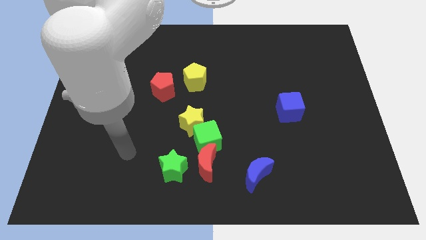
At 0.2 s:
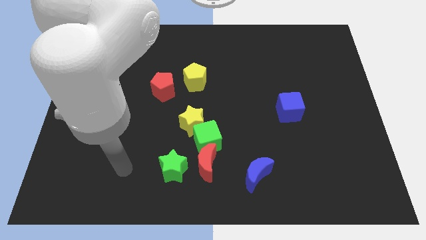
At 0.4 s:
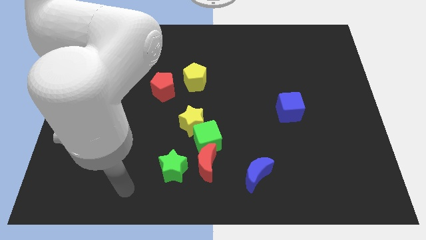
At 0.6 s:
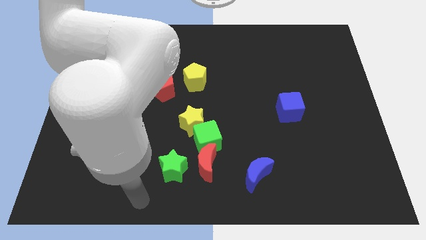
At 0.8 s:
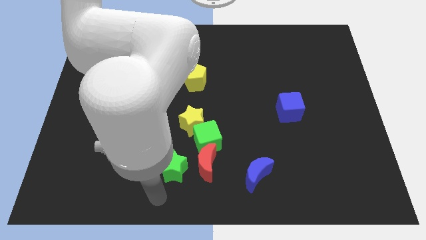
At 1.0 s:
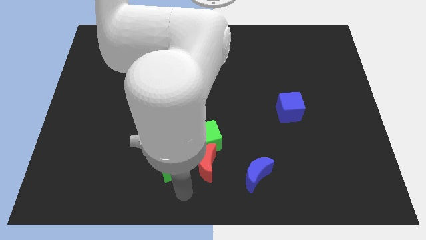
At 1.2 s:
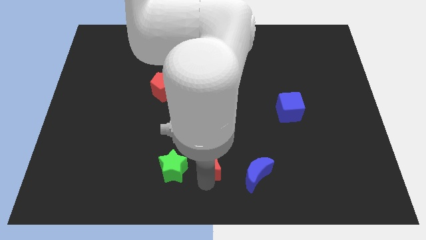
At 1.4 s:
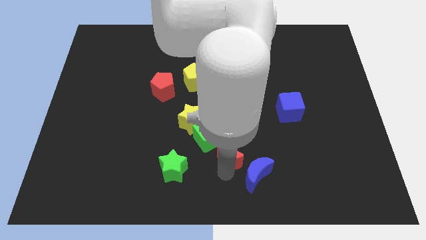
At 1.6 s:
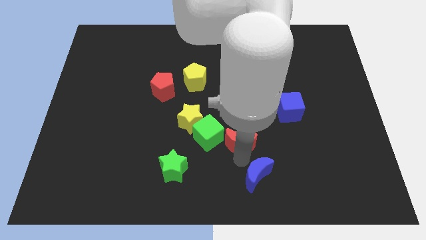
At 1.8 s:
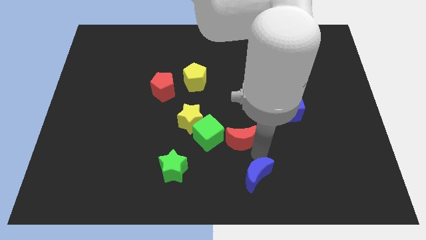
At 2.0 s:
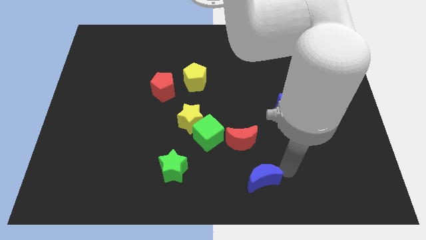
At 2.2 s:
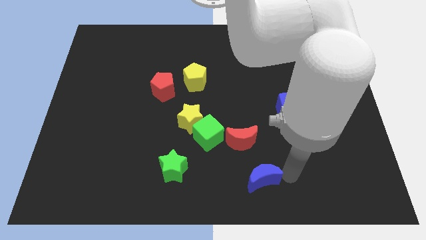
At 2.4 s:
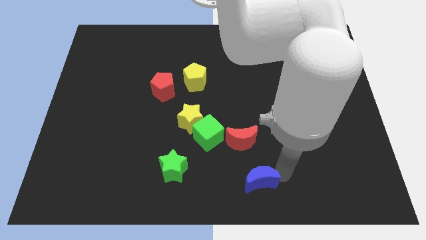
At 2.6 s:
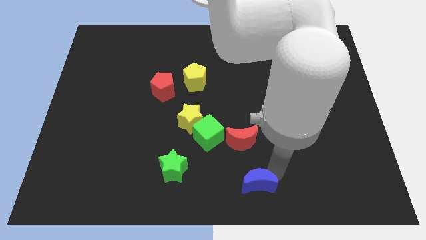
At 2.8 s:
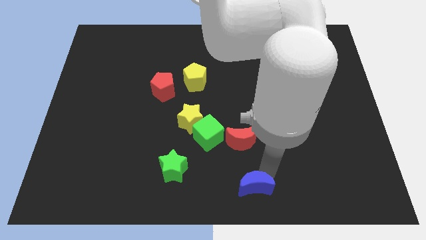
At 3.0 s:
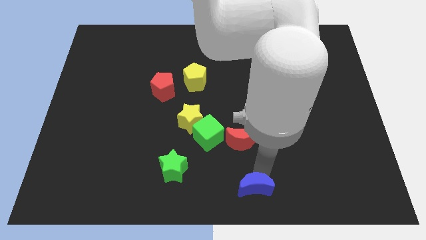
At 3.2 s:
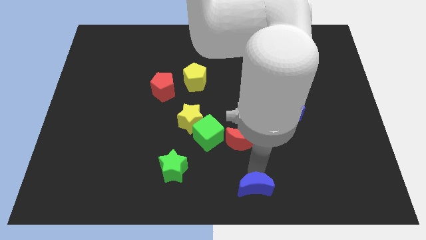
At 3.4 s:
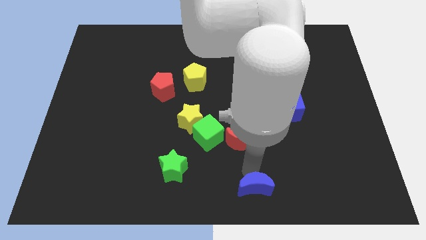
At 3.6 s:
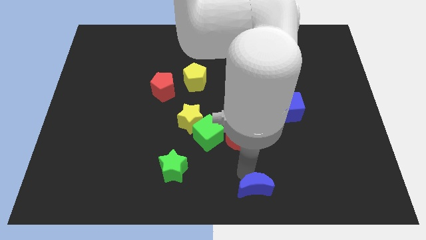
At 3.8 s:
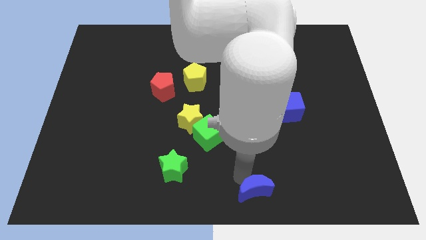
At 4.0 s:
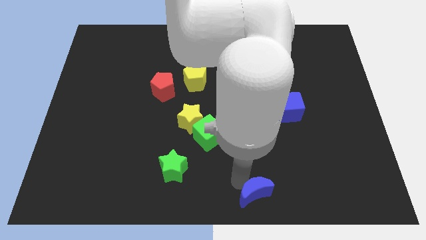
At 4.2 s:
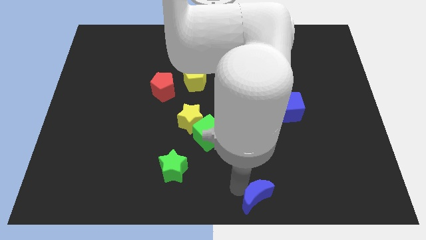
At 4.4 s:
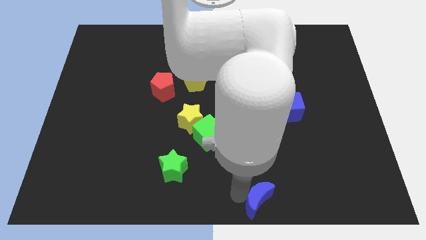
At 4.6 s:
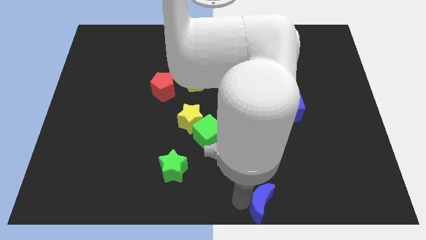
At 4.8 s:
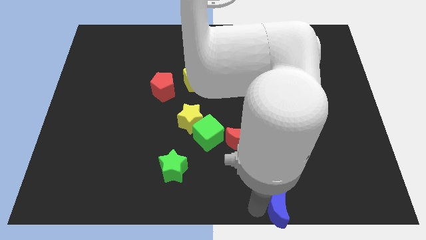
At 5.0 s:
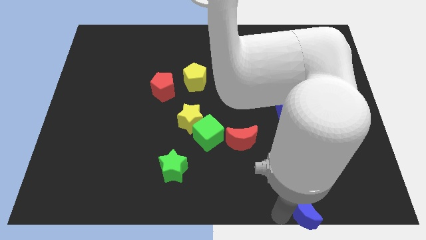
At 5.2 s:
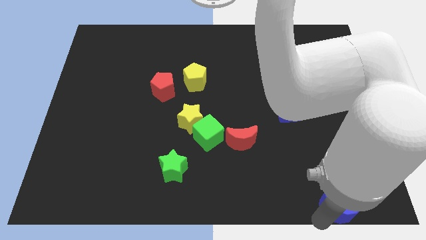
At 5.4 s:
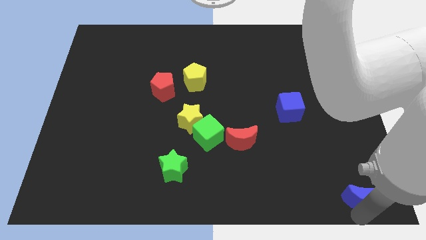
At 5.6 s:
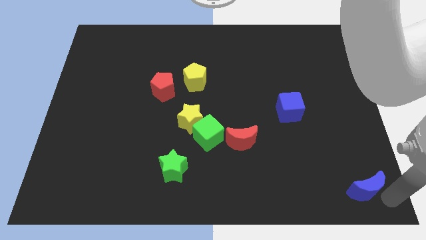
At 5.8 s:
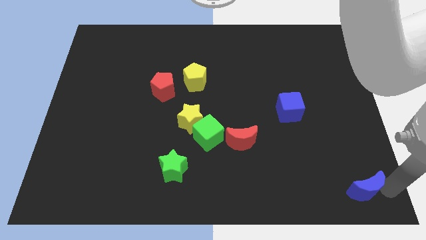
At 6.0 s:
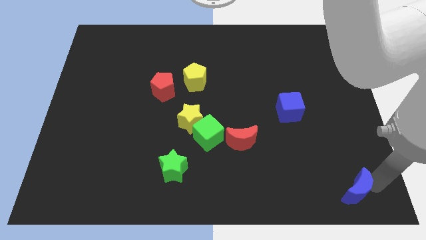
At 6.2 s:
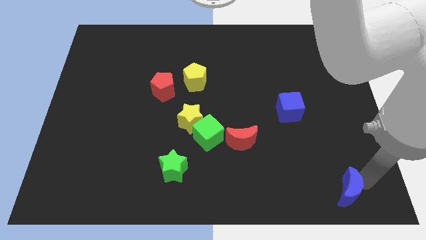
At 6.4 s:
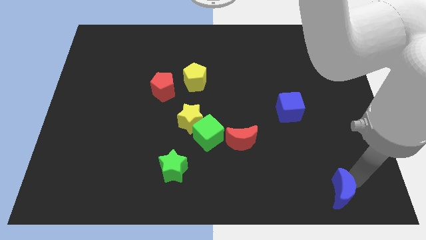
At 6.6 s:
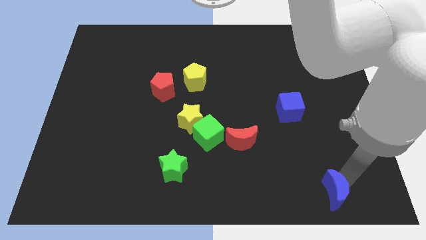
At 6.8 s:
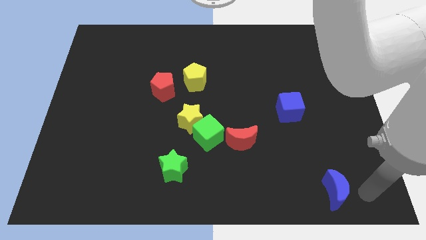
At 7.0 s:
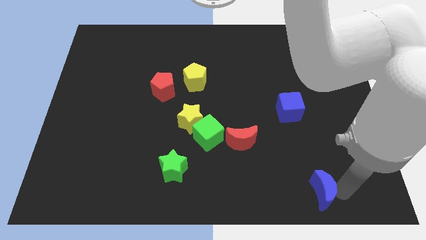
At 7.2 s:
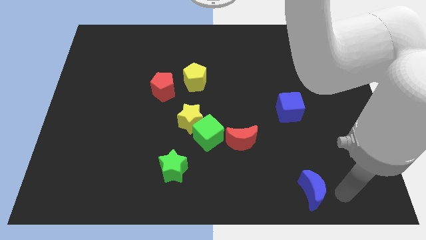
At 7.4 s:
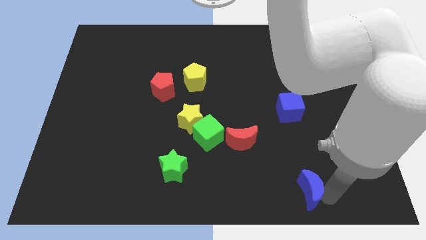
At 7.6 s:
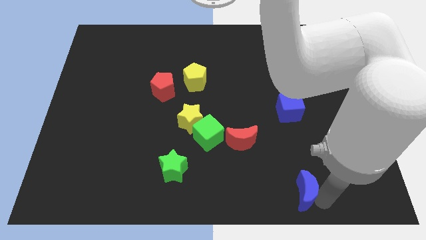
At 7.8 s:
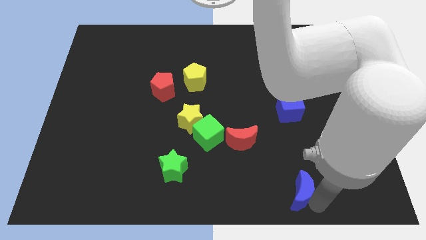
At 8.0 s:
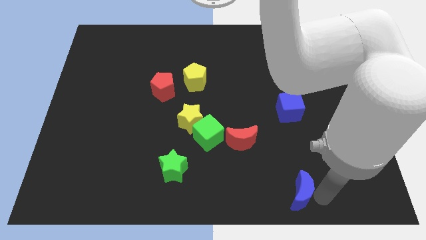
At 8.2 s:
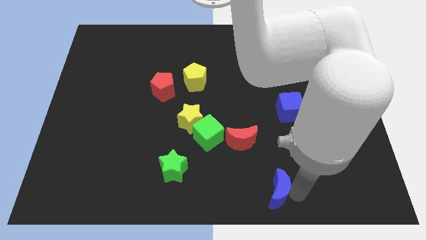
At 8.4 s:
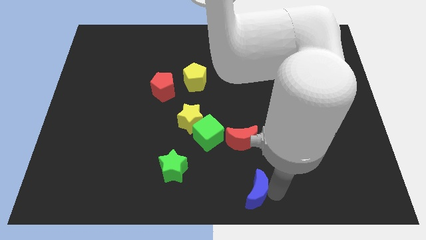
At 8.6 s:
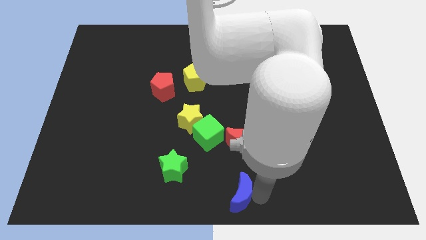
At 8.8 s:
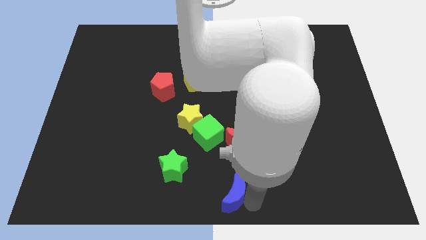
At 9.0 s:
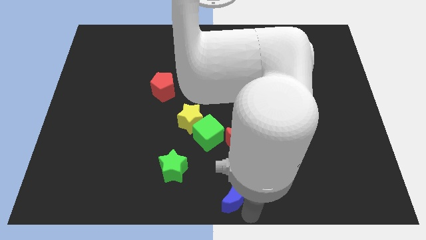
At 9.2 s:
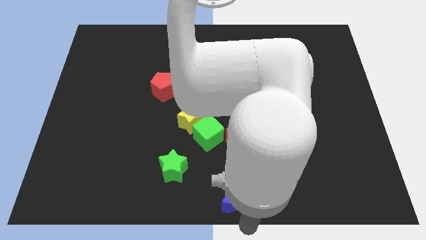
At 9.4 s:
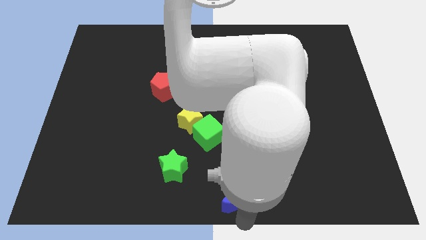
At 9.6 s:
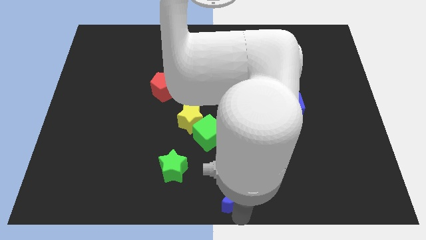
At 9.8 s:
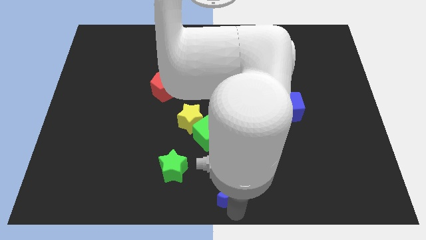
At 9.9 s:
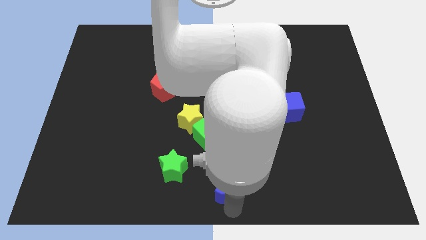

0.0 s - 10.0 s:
slide the blue moon below the green cube

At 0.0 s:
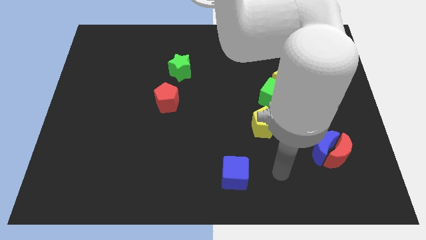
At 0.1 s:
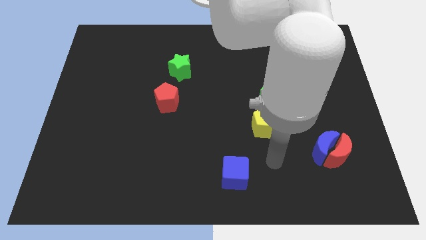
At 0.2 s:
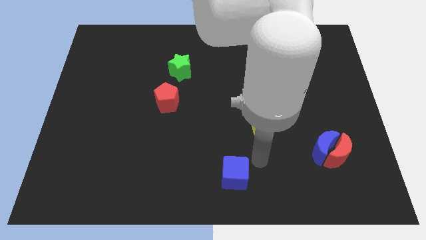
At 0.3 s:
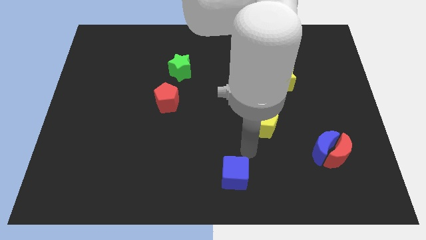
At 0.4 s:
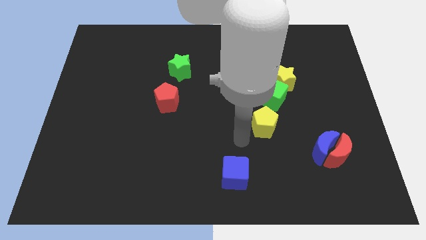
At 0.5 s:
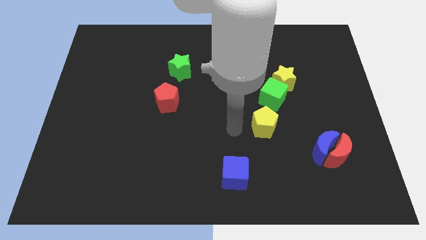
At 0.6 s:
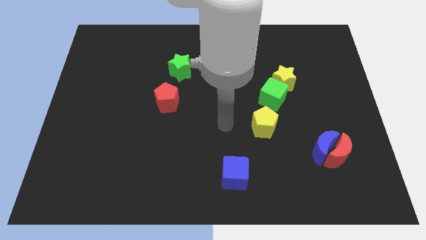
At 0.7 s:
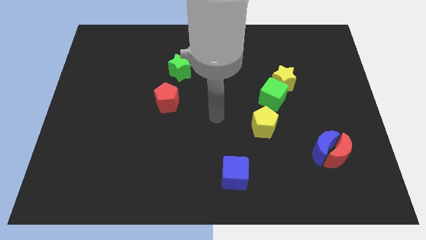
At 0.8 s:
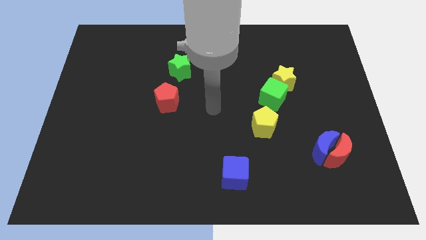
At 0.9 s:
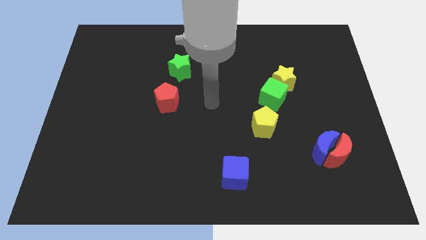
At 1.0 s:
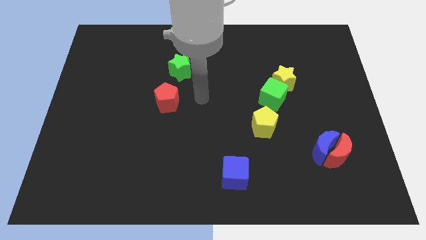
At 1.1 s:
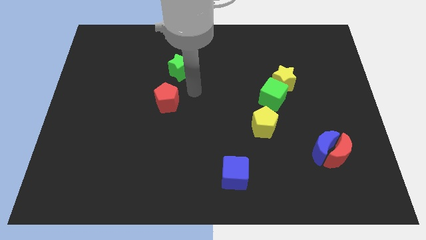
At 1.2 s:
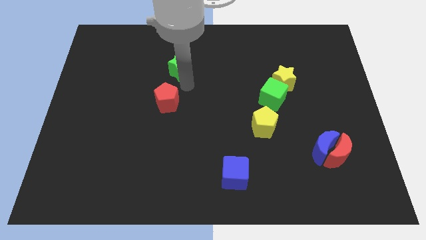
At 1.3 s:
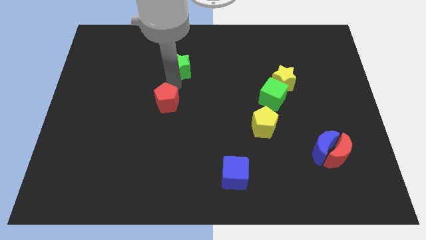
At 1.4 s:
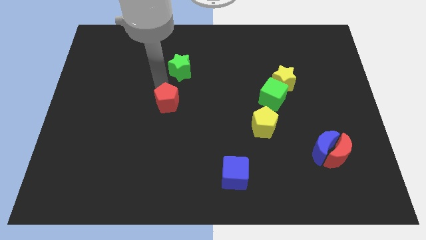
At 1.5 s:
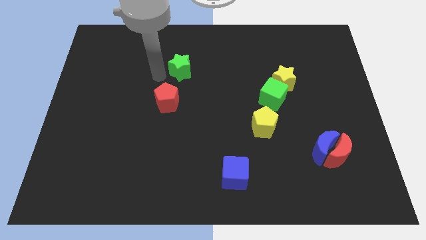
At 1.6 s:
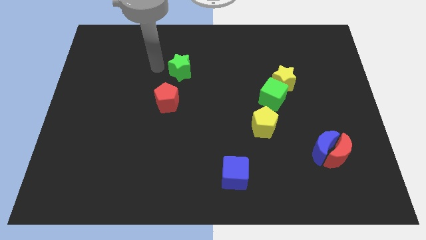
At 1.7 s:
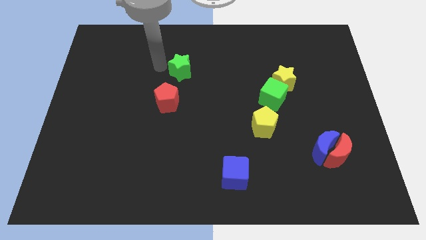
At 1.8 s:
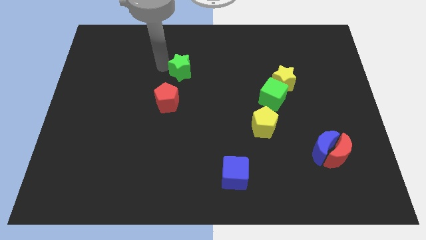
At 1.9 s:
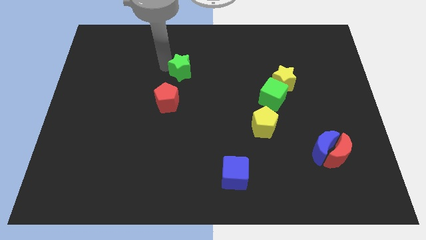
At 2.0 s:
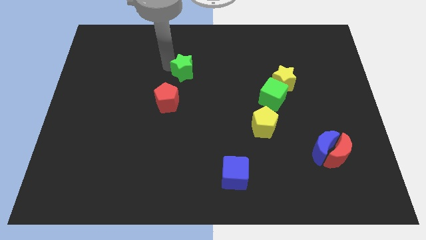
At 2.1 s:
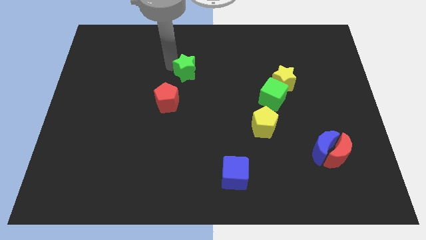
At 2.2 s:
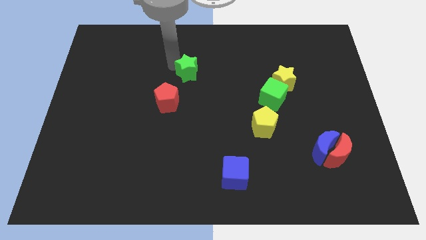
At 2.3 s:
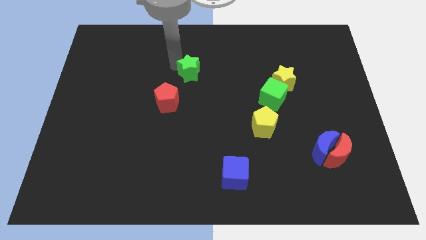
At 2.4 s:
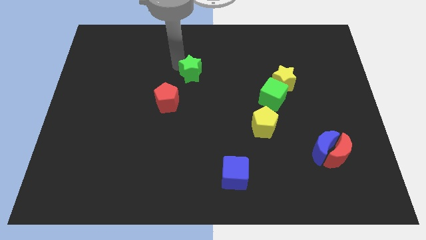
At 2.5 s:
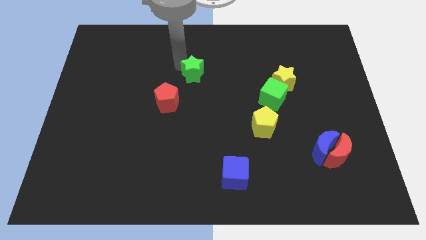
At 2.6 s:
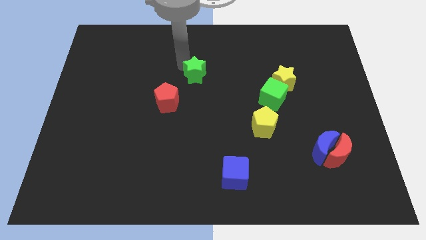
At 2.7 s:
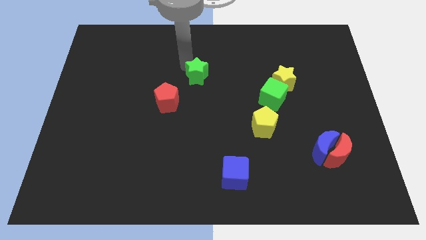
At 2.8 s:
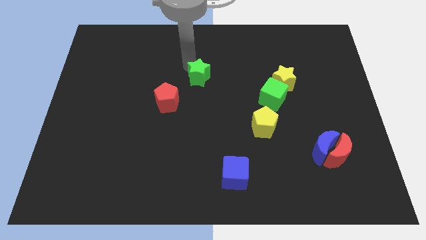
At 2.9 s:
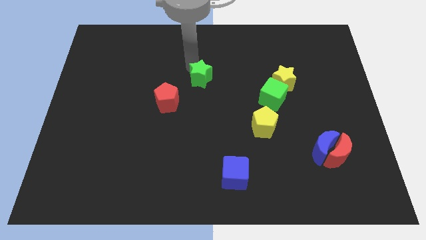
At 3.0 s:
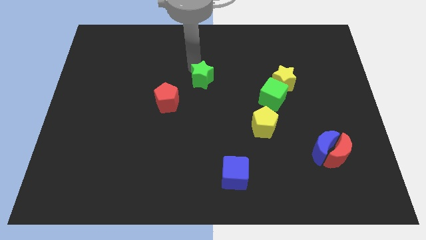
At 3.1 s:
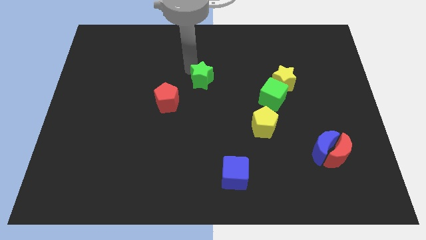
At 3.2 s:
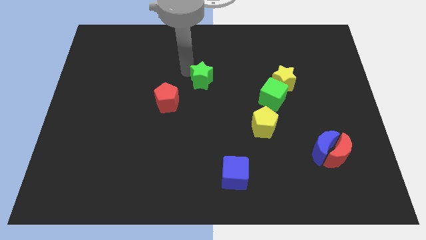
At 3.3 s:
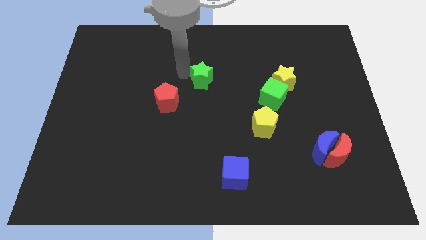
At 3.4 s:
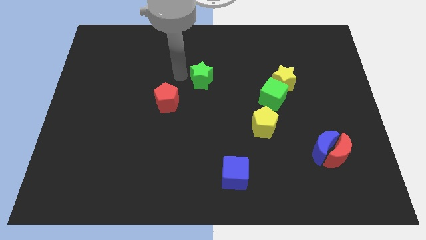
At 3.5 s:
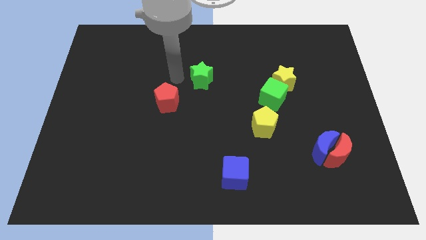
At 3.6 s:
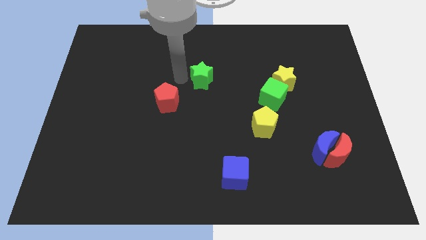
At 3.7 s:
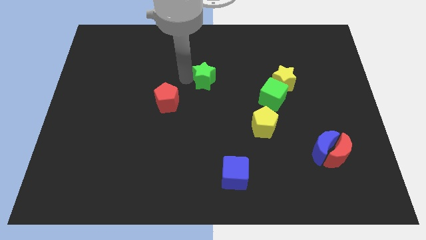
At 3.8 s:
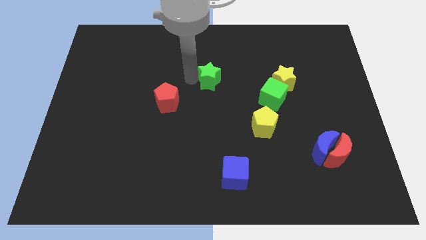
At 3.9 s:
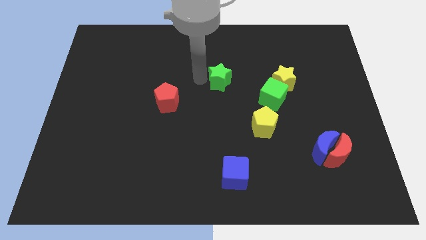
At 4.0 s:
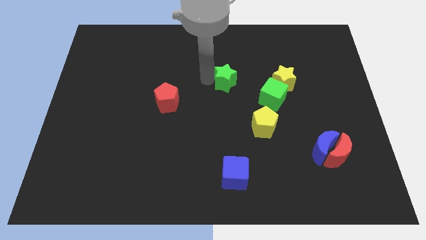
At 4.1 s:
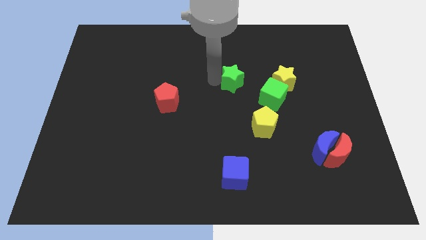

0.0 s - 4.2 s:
slide the green star to the top left of the green cube
